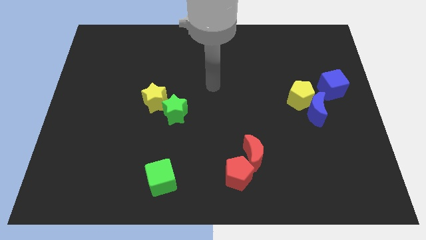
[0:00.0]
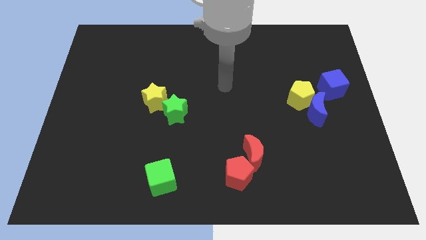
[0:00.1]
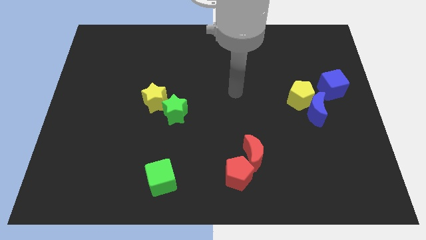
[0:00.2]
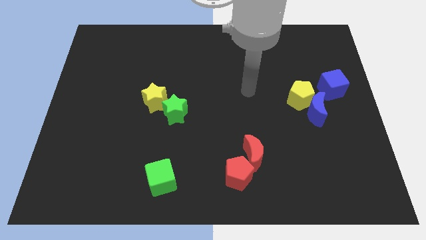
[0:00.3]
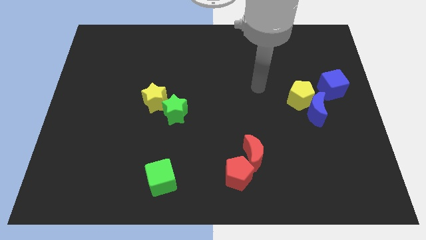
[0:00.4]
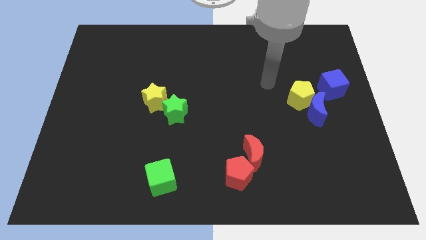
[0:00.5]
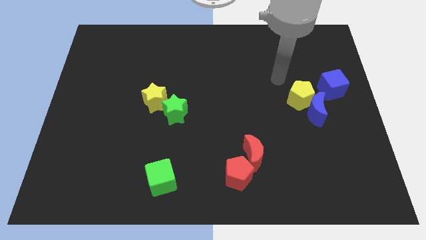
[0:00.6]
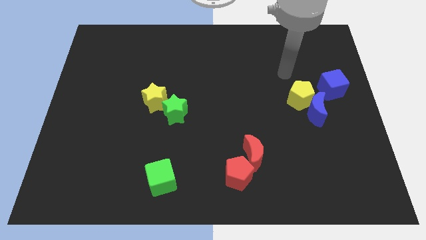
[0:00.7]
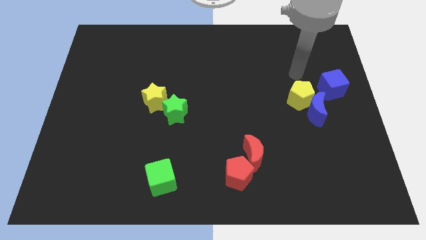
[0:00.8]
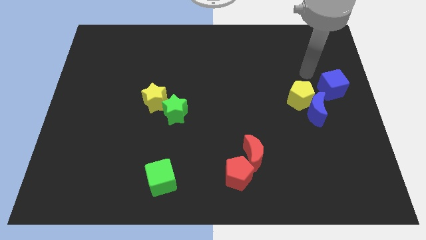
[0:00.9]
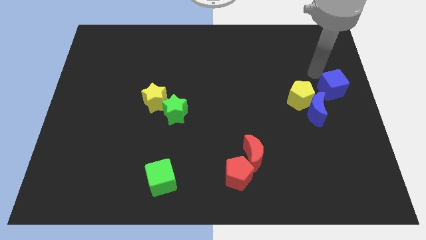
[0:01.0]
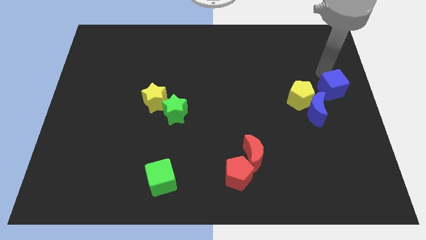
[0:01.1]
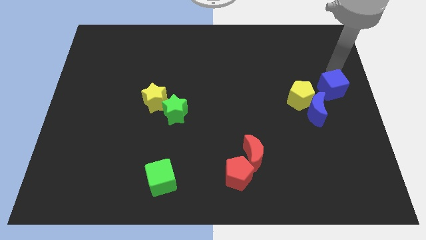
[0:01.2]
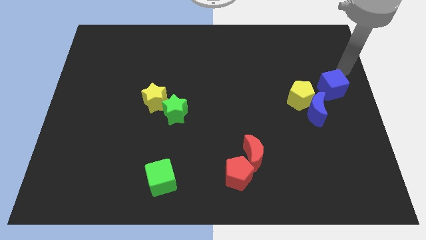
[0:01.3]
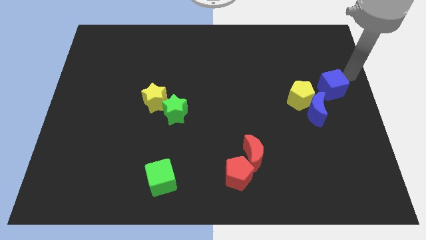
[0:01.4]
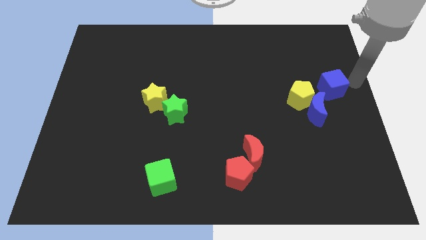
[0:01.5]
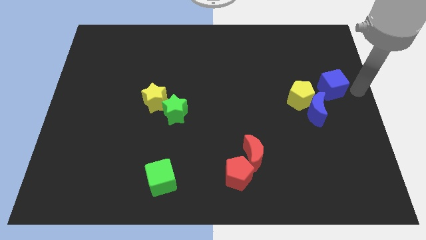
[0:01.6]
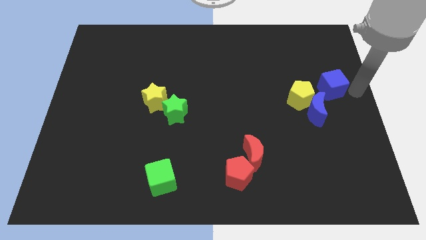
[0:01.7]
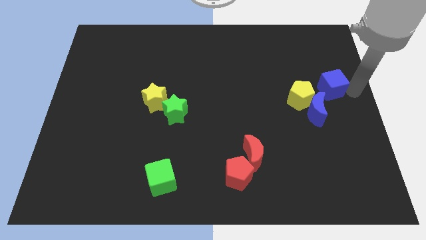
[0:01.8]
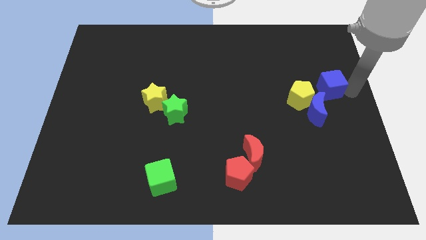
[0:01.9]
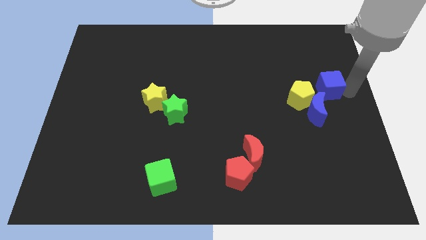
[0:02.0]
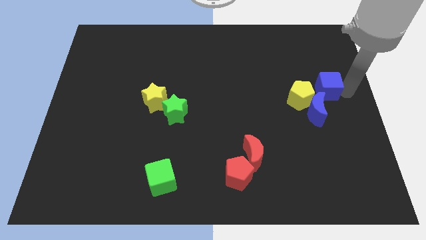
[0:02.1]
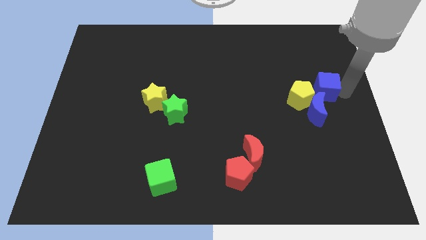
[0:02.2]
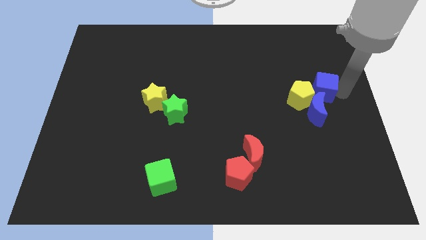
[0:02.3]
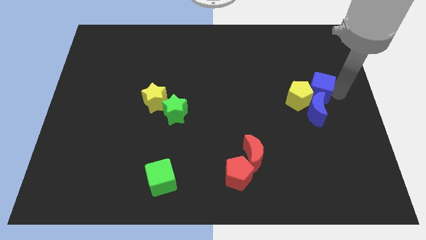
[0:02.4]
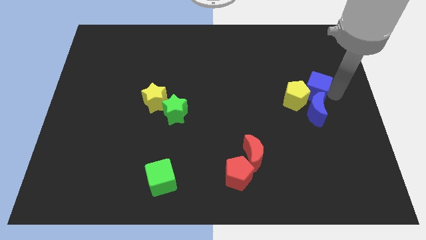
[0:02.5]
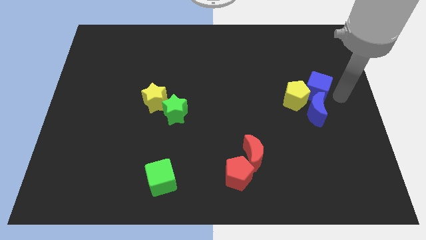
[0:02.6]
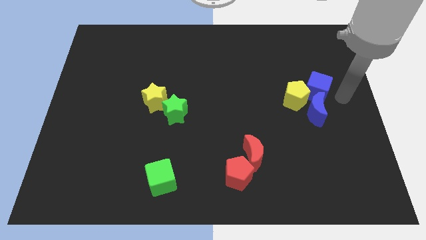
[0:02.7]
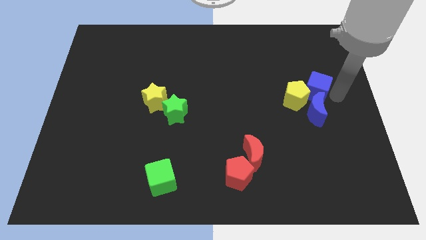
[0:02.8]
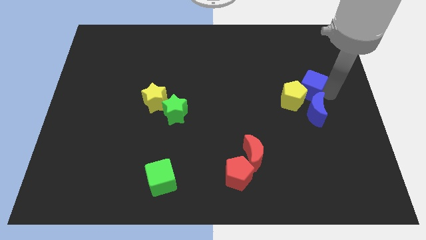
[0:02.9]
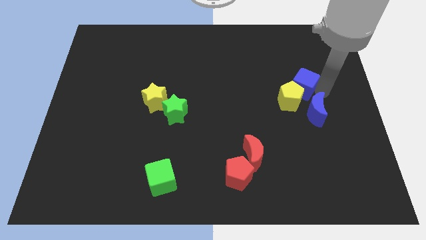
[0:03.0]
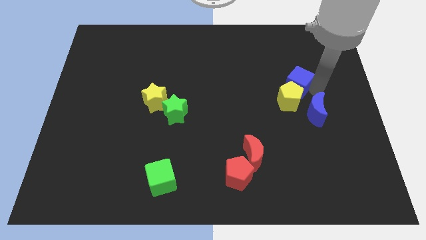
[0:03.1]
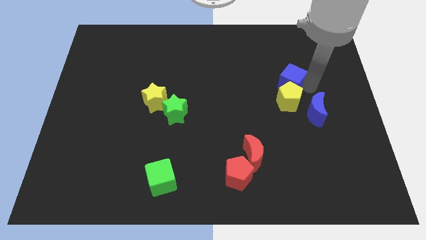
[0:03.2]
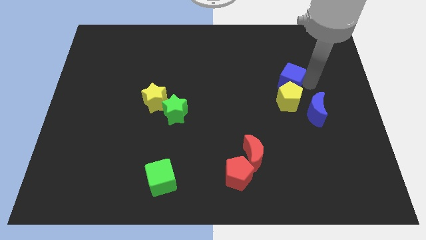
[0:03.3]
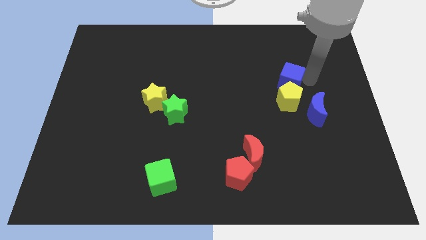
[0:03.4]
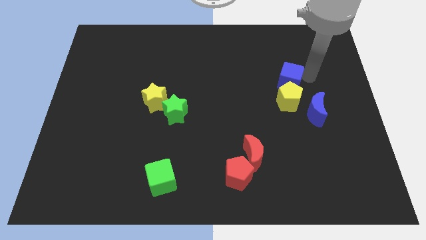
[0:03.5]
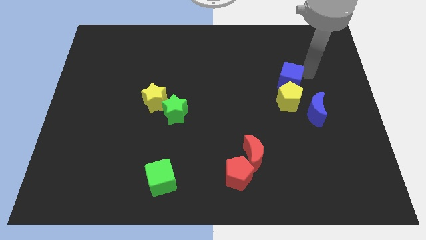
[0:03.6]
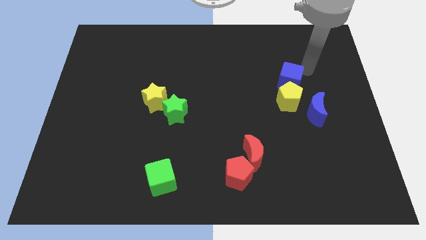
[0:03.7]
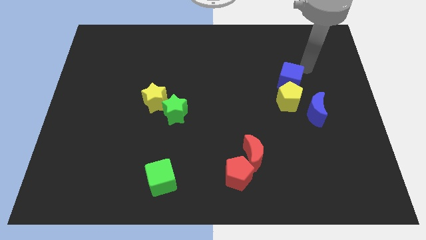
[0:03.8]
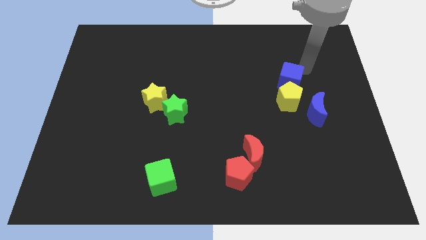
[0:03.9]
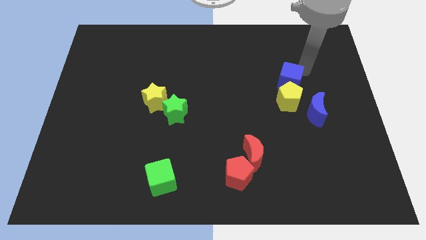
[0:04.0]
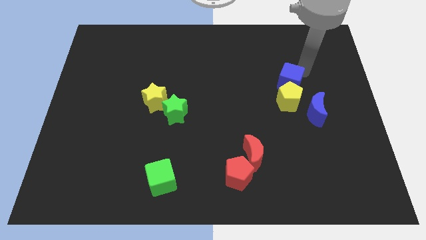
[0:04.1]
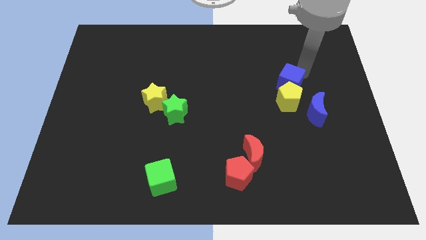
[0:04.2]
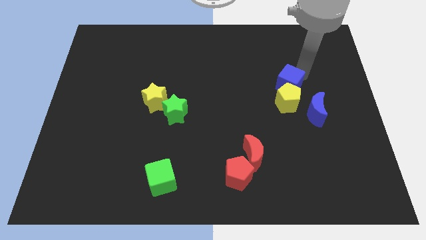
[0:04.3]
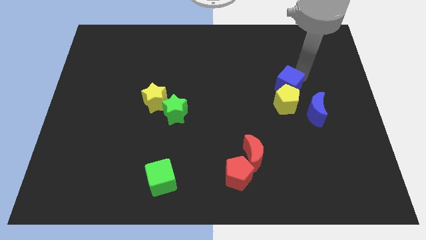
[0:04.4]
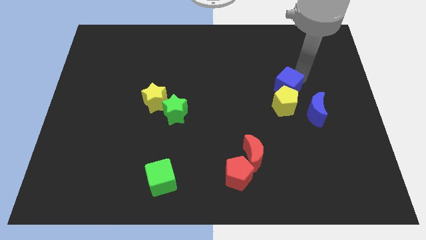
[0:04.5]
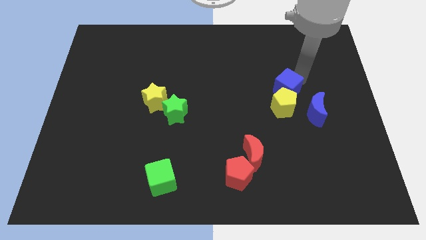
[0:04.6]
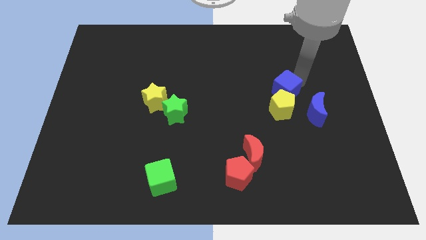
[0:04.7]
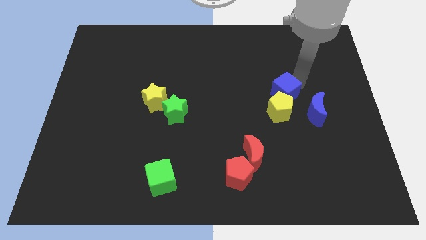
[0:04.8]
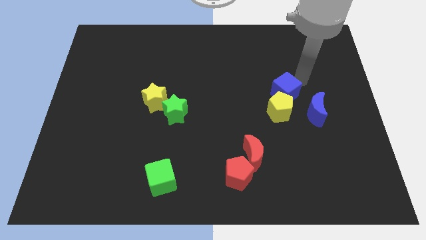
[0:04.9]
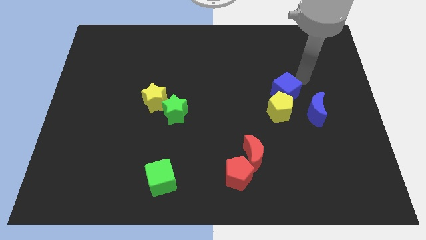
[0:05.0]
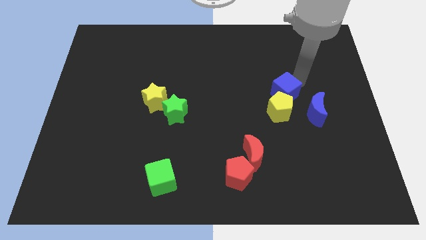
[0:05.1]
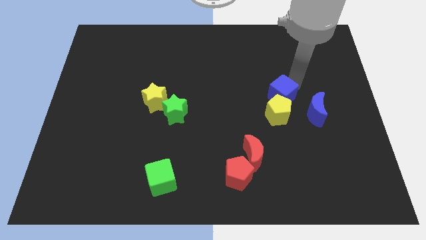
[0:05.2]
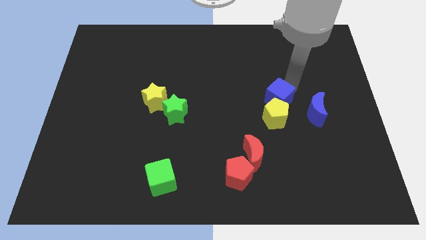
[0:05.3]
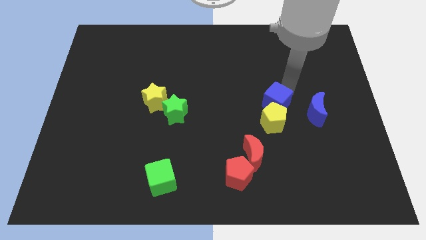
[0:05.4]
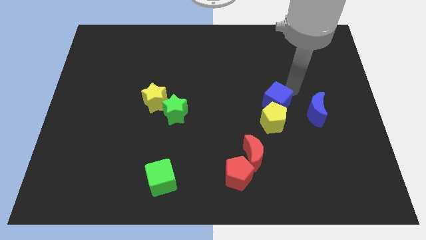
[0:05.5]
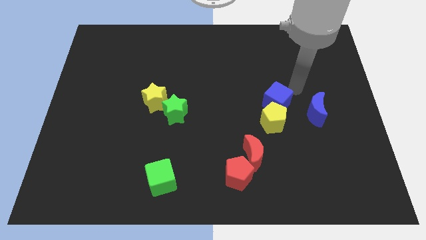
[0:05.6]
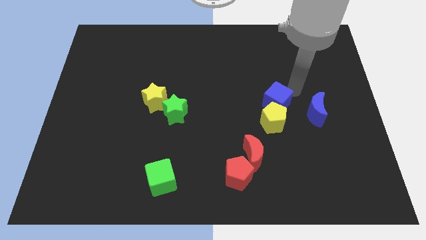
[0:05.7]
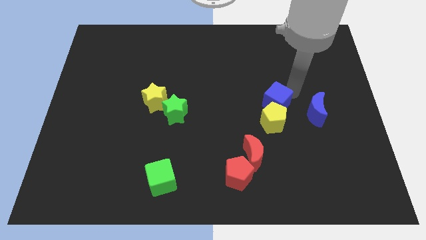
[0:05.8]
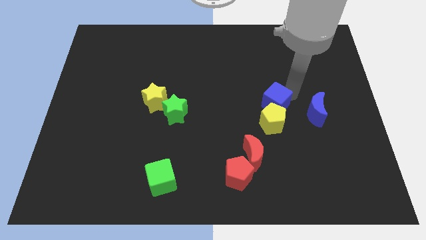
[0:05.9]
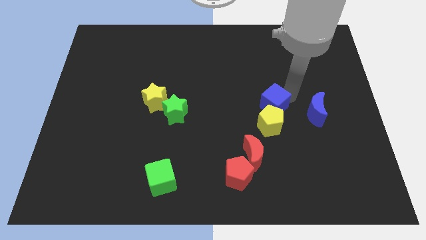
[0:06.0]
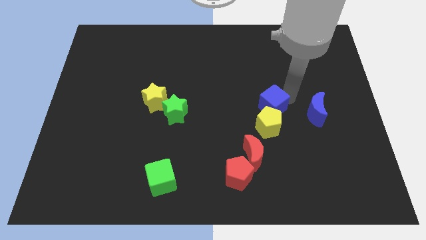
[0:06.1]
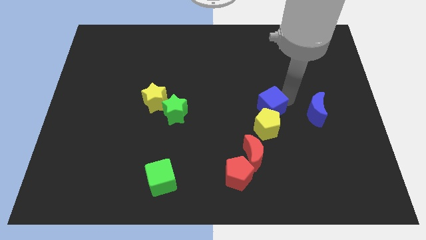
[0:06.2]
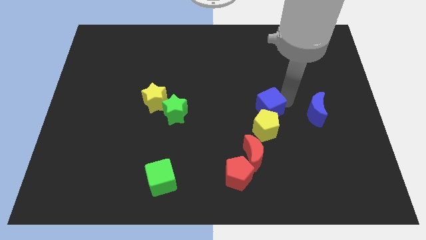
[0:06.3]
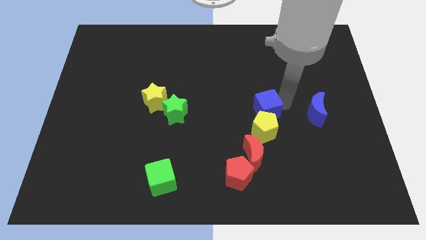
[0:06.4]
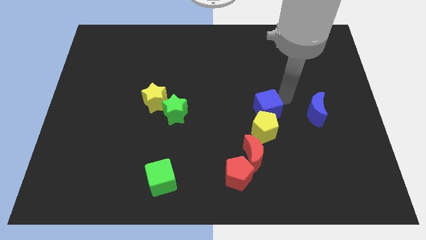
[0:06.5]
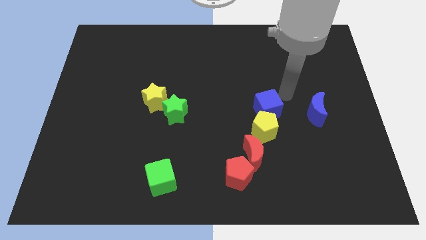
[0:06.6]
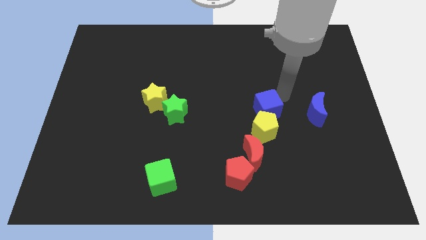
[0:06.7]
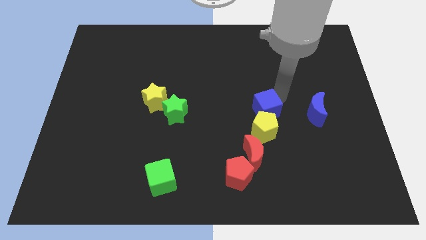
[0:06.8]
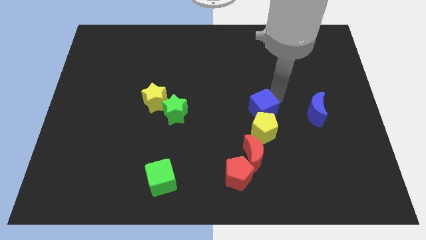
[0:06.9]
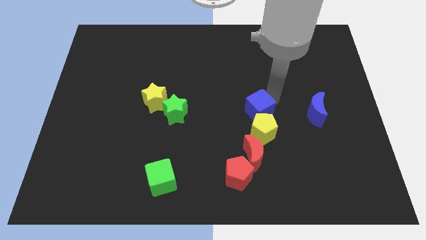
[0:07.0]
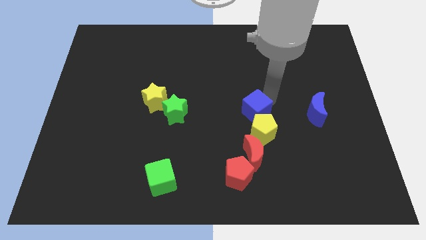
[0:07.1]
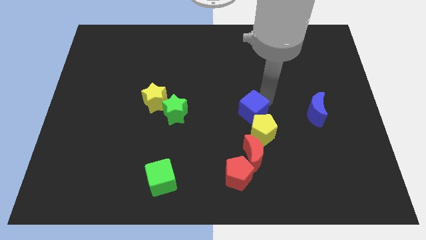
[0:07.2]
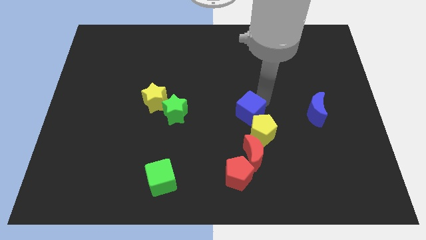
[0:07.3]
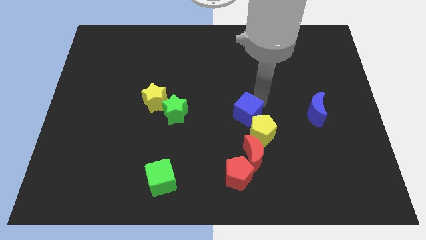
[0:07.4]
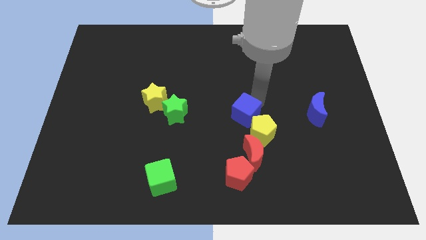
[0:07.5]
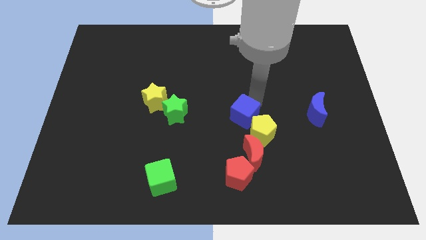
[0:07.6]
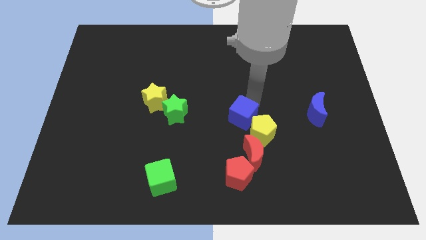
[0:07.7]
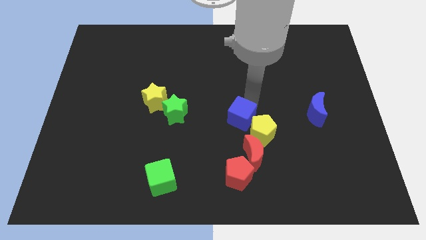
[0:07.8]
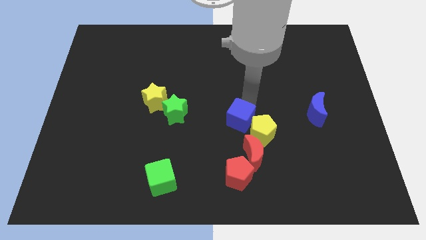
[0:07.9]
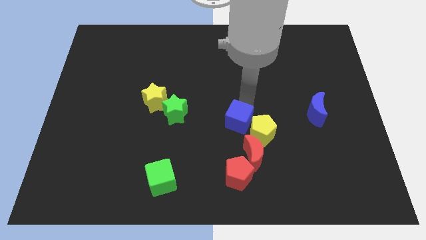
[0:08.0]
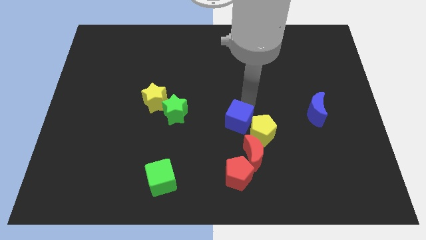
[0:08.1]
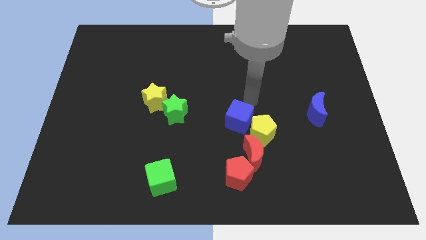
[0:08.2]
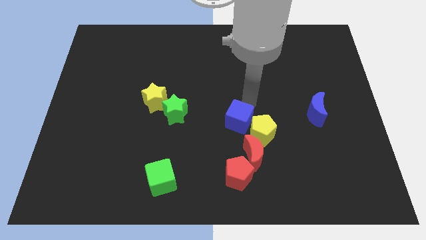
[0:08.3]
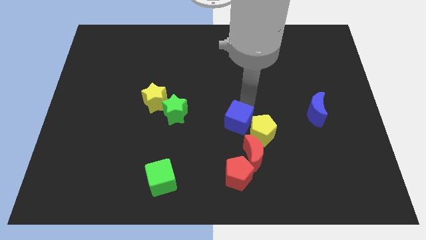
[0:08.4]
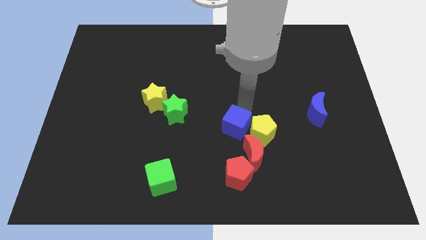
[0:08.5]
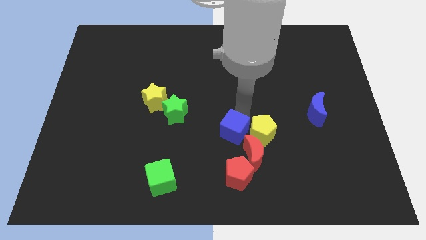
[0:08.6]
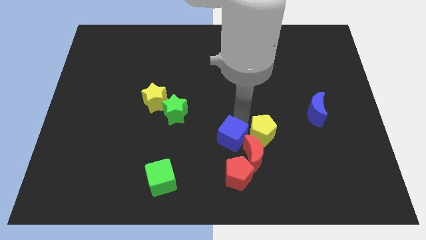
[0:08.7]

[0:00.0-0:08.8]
slide the blue cube to the left side of the red moon
